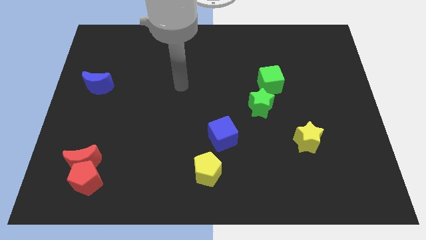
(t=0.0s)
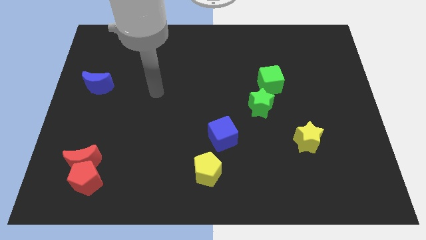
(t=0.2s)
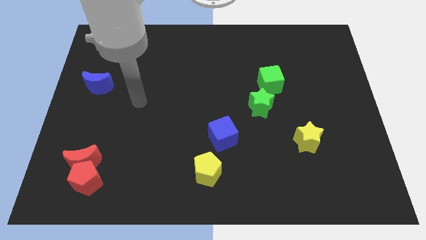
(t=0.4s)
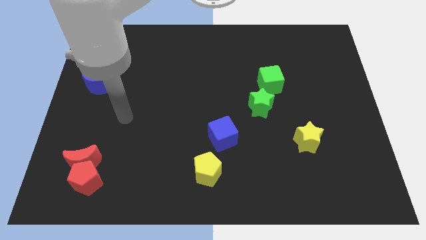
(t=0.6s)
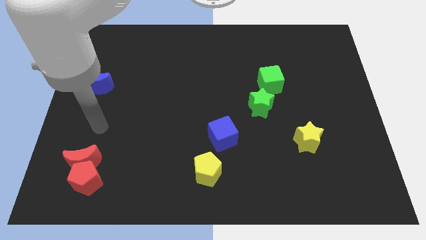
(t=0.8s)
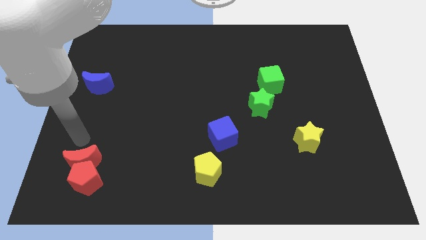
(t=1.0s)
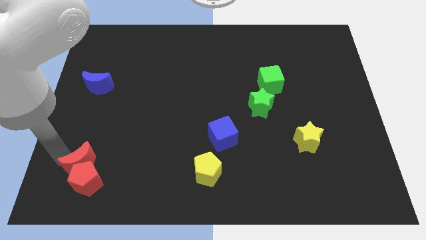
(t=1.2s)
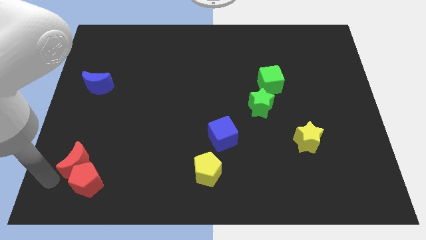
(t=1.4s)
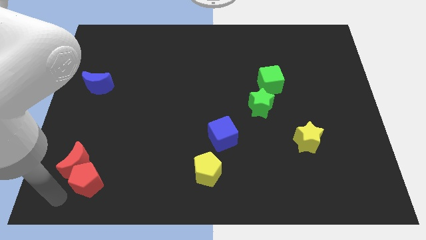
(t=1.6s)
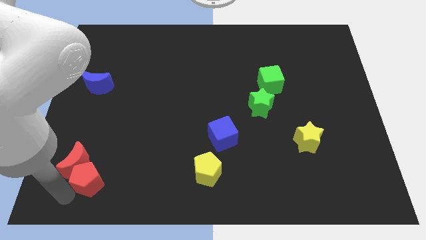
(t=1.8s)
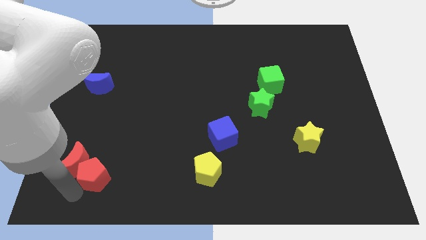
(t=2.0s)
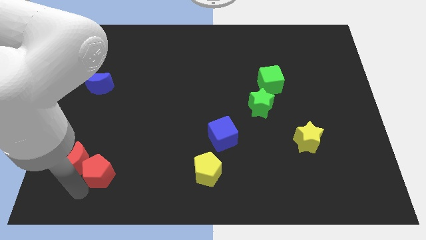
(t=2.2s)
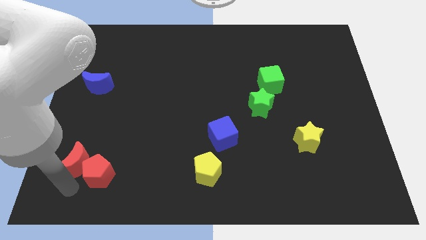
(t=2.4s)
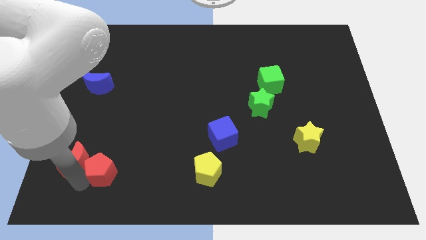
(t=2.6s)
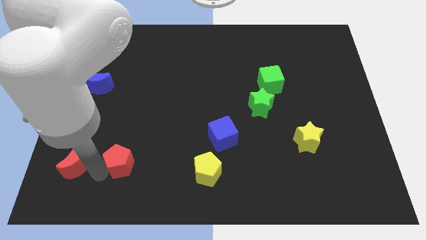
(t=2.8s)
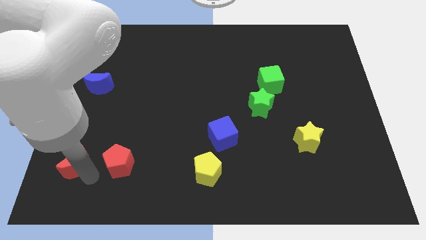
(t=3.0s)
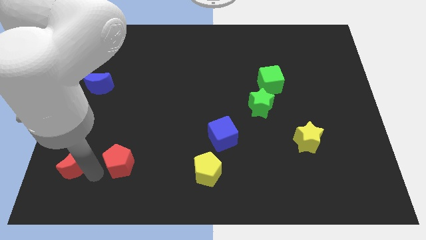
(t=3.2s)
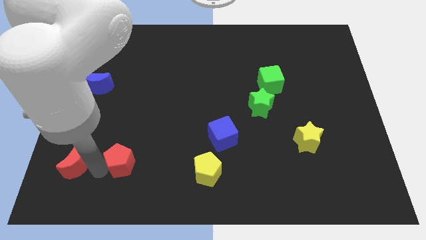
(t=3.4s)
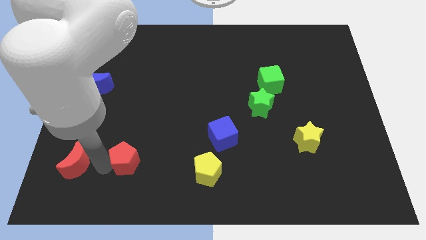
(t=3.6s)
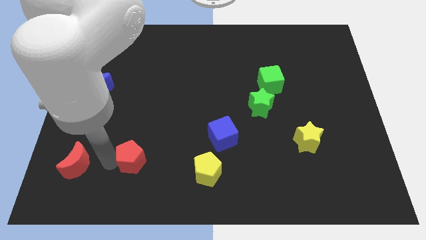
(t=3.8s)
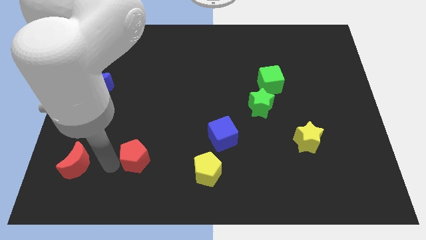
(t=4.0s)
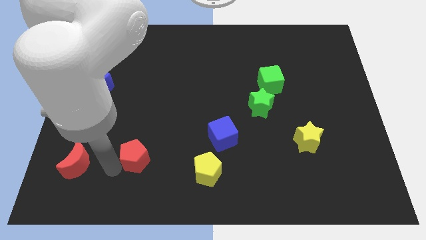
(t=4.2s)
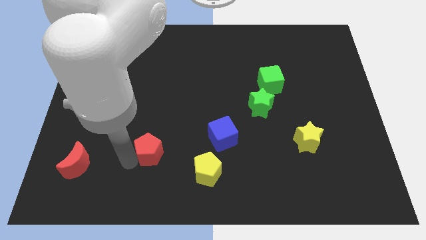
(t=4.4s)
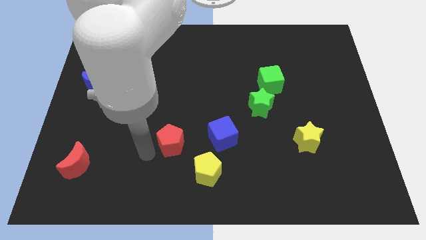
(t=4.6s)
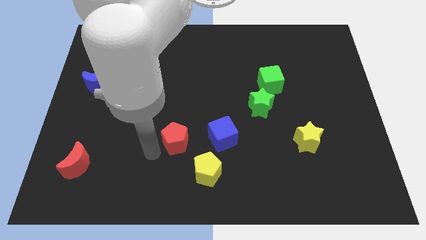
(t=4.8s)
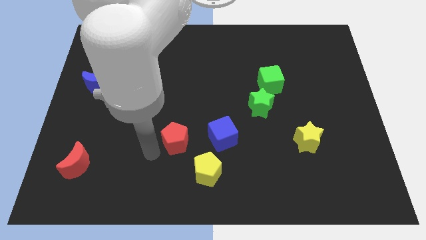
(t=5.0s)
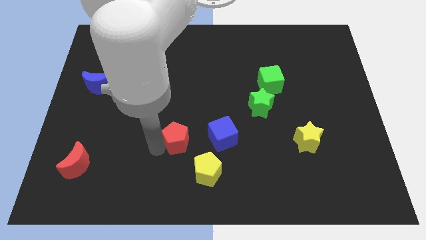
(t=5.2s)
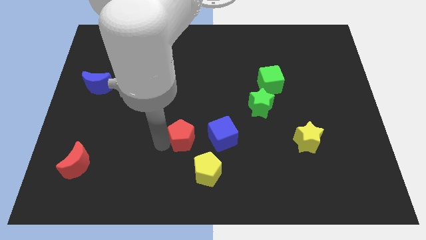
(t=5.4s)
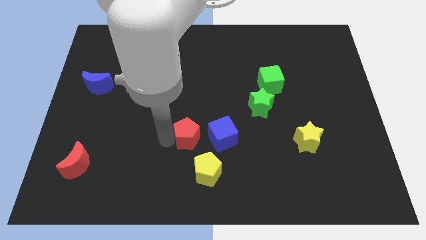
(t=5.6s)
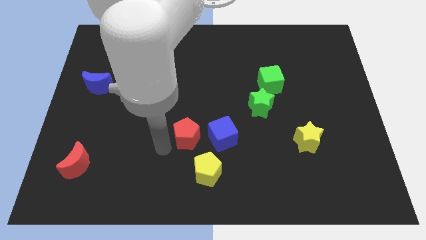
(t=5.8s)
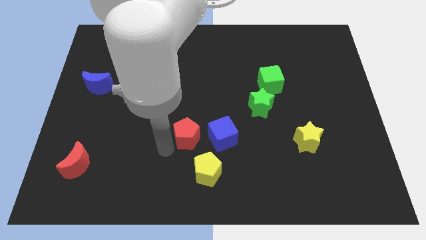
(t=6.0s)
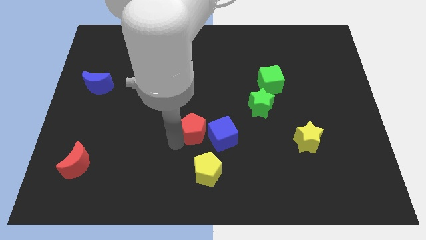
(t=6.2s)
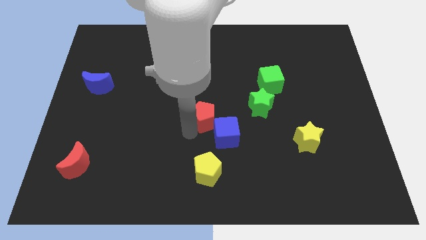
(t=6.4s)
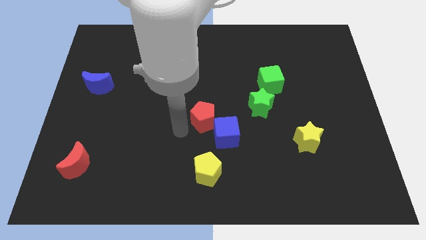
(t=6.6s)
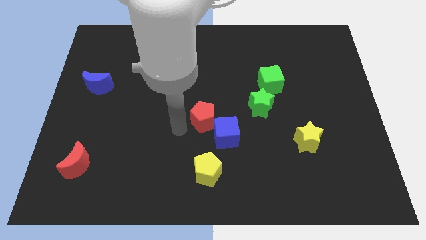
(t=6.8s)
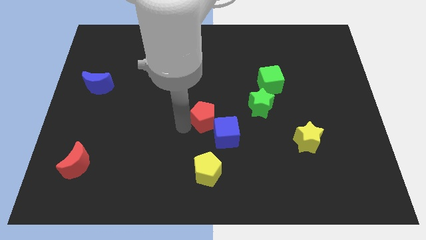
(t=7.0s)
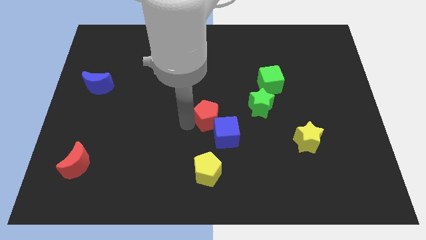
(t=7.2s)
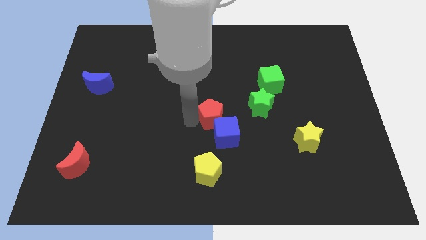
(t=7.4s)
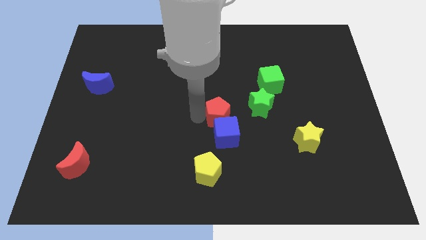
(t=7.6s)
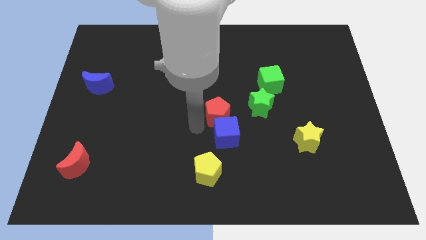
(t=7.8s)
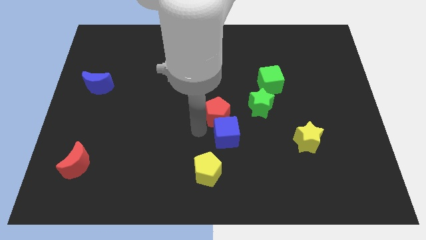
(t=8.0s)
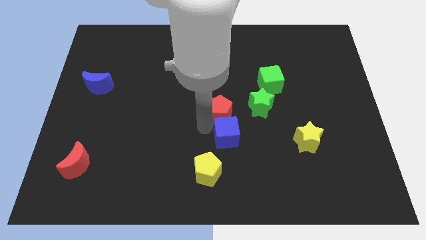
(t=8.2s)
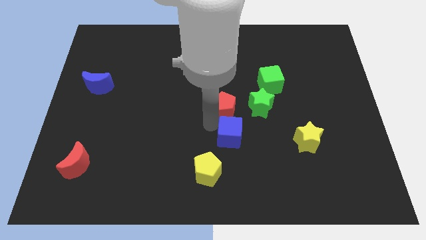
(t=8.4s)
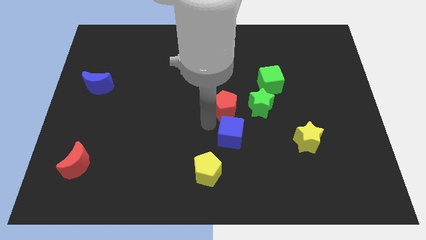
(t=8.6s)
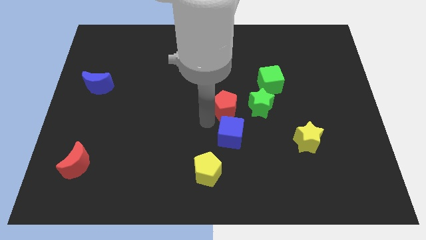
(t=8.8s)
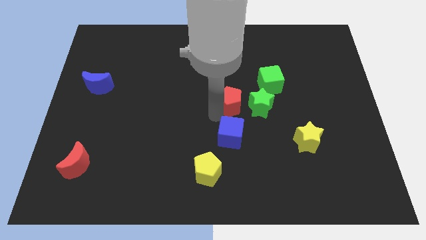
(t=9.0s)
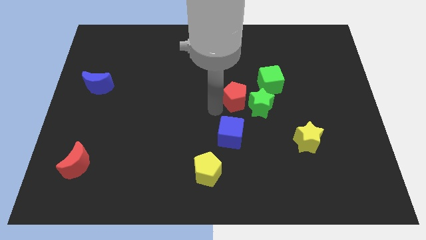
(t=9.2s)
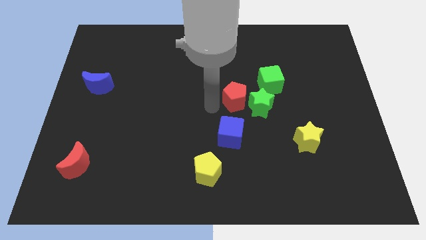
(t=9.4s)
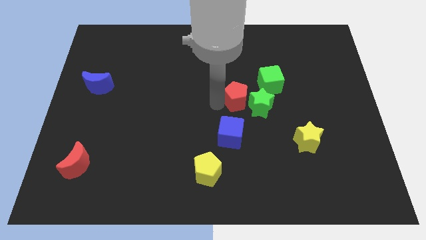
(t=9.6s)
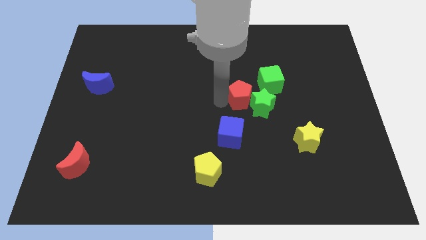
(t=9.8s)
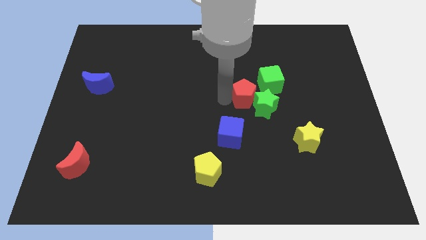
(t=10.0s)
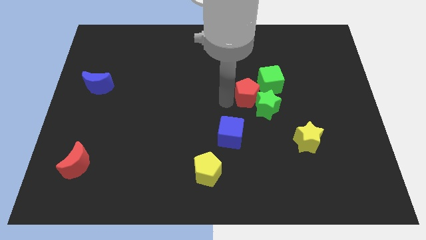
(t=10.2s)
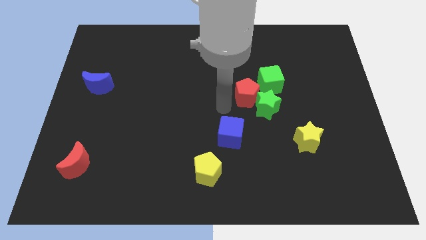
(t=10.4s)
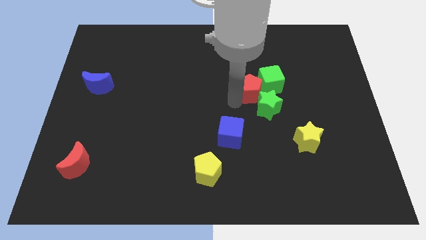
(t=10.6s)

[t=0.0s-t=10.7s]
slide the red pentagon towards the green cube

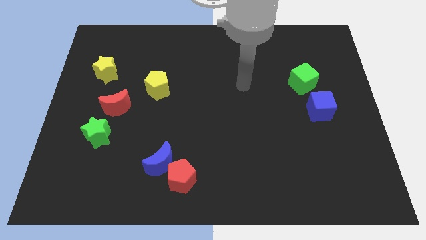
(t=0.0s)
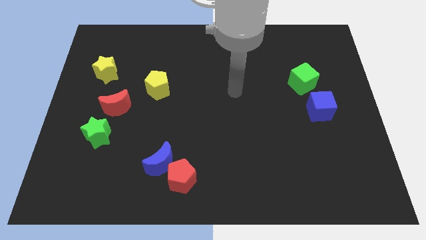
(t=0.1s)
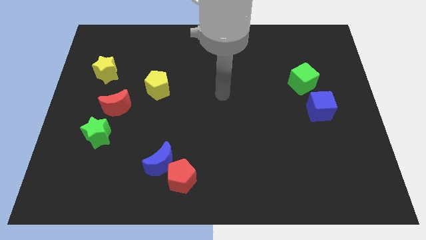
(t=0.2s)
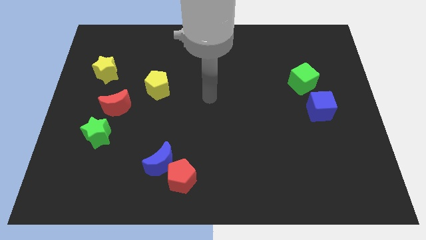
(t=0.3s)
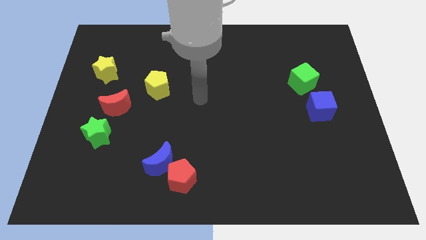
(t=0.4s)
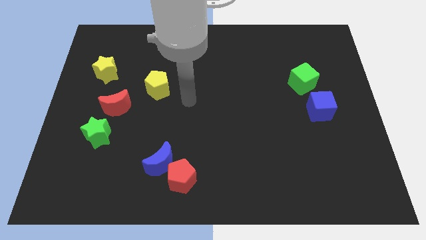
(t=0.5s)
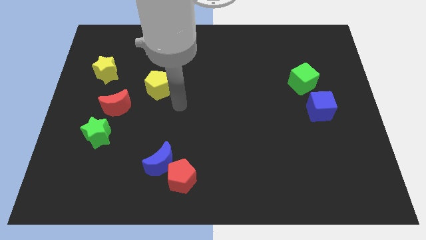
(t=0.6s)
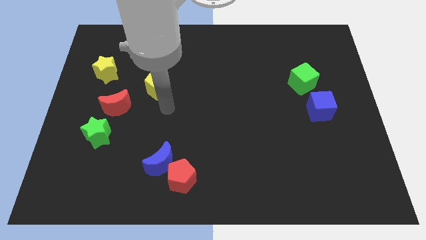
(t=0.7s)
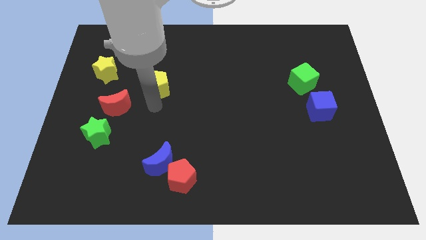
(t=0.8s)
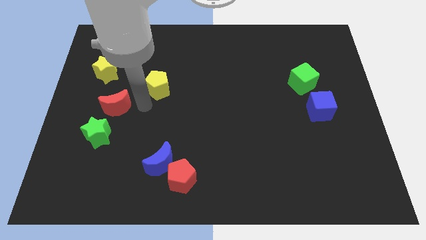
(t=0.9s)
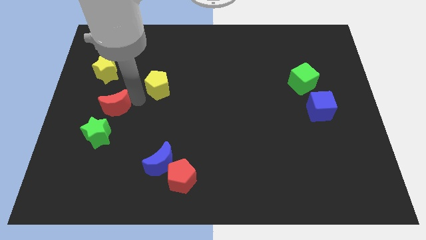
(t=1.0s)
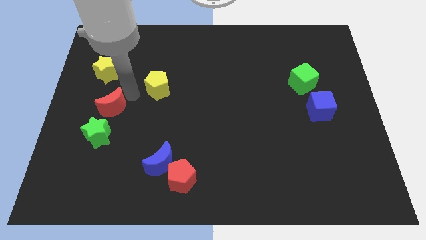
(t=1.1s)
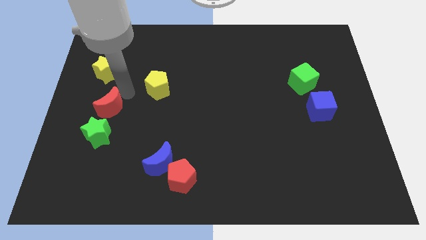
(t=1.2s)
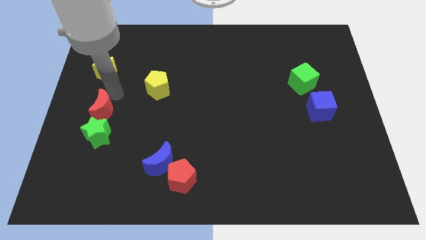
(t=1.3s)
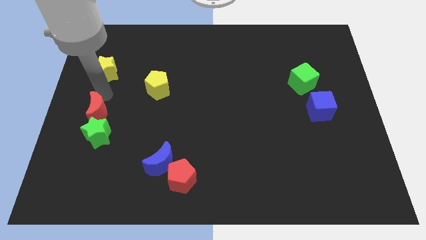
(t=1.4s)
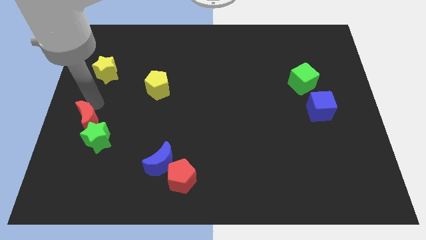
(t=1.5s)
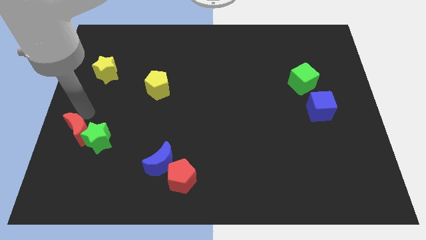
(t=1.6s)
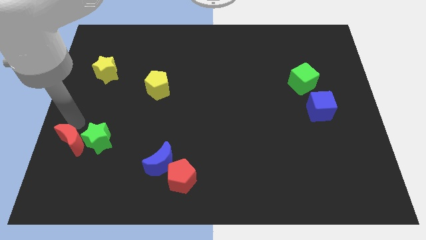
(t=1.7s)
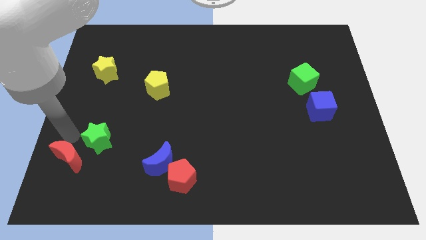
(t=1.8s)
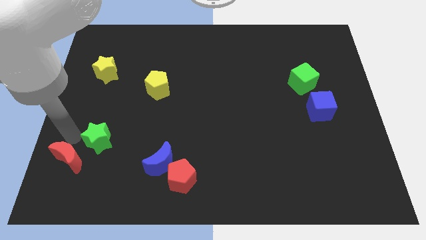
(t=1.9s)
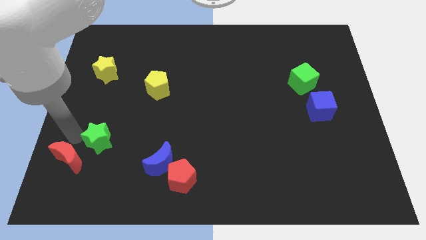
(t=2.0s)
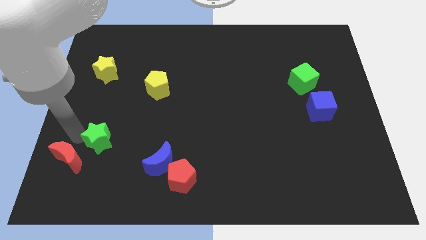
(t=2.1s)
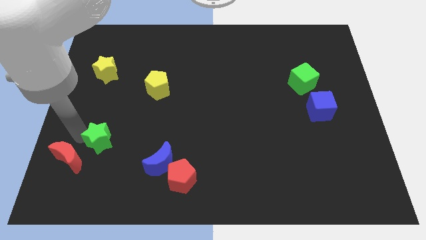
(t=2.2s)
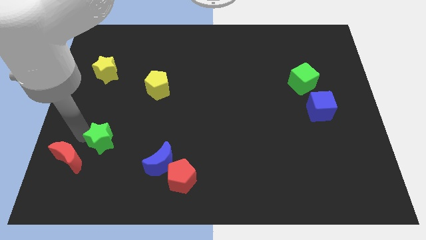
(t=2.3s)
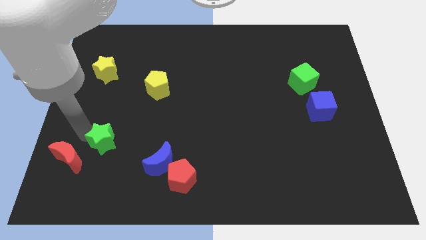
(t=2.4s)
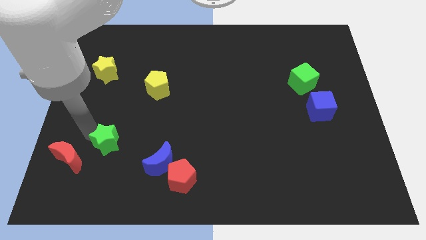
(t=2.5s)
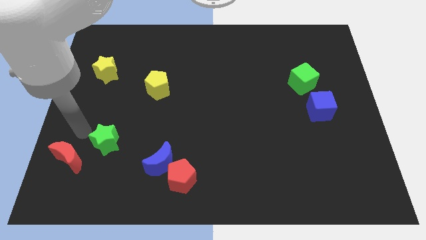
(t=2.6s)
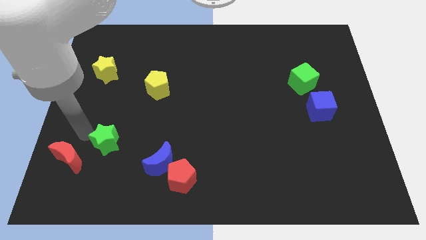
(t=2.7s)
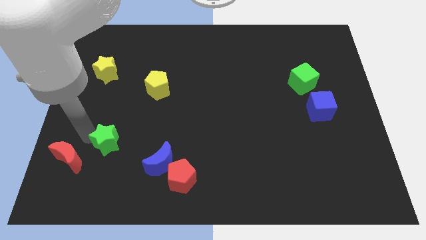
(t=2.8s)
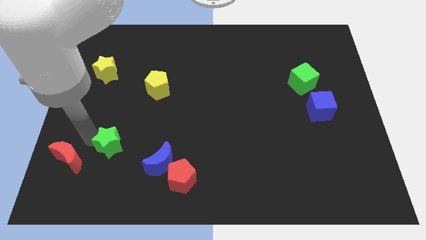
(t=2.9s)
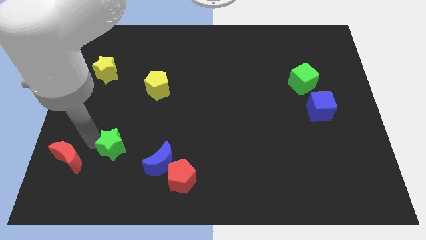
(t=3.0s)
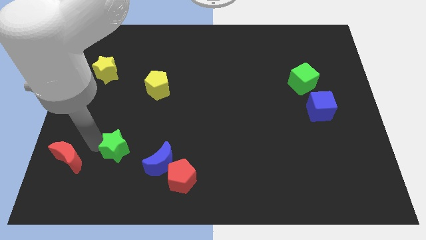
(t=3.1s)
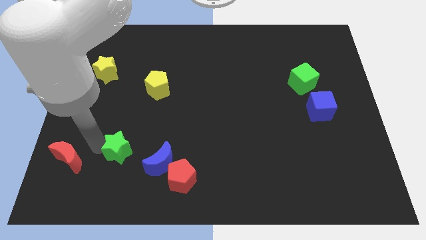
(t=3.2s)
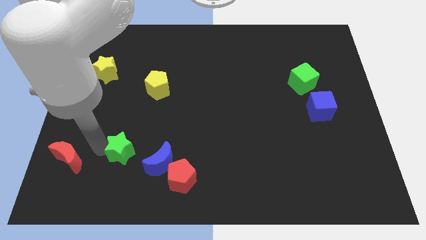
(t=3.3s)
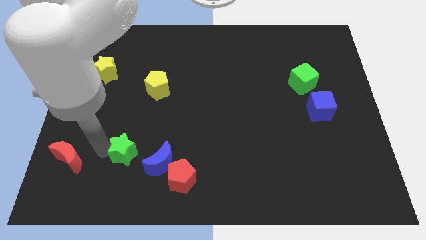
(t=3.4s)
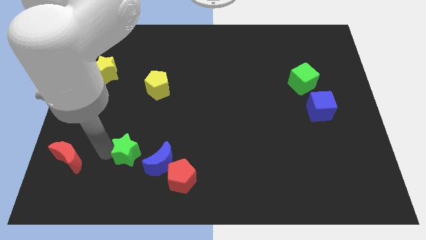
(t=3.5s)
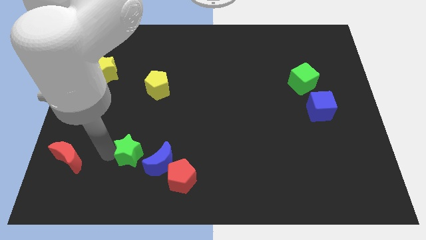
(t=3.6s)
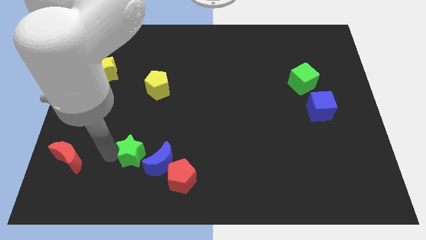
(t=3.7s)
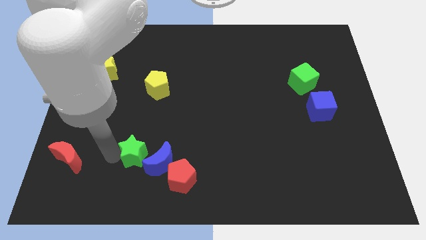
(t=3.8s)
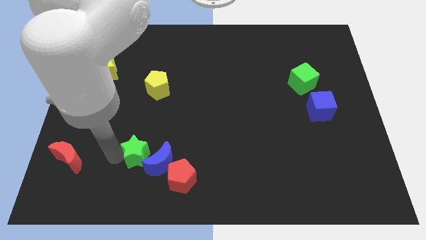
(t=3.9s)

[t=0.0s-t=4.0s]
push the green star to the blue moon
